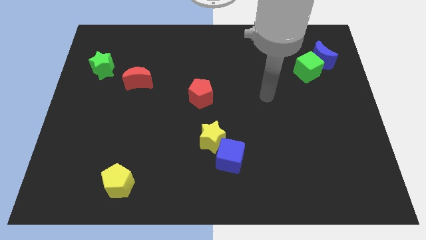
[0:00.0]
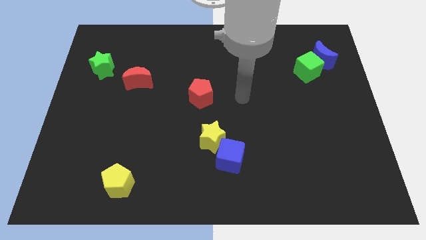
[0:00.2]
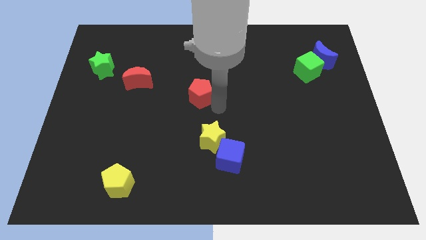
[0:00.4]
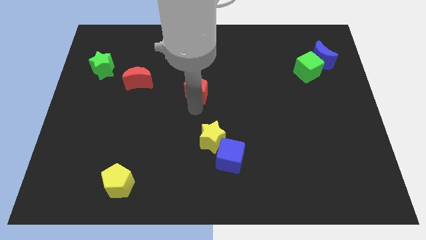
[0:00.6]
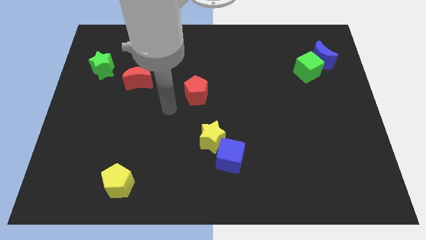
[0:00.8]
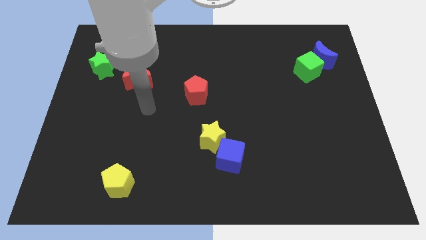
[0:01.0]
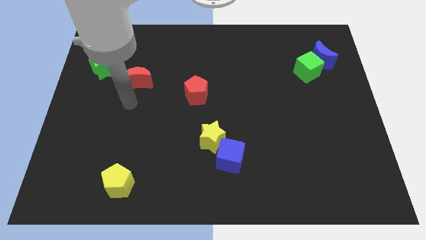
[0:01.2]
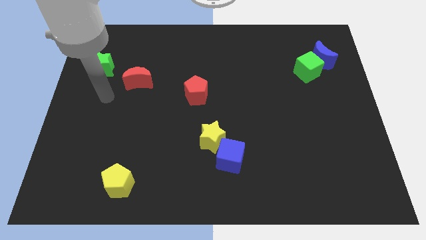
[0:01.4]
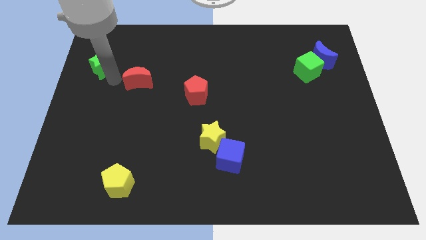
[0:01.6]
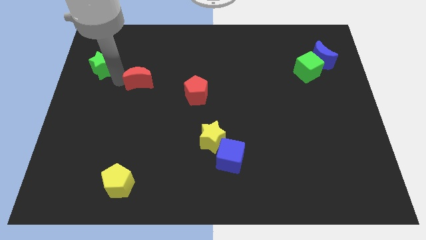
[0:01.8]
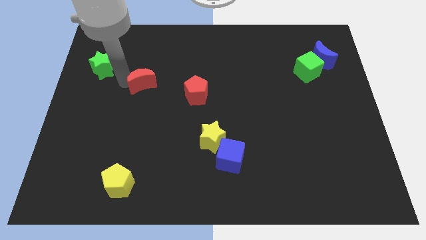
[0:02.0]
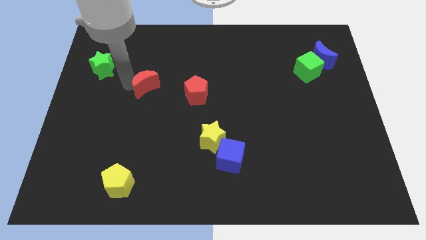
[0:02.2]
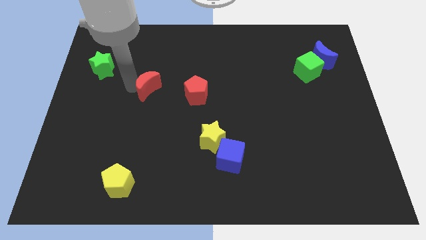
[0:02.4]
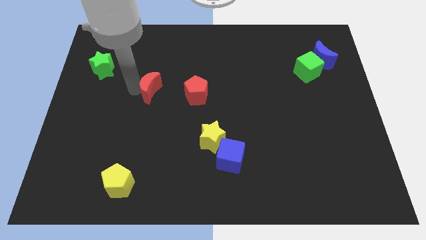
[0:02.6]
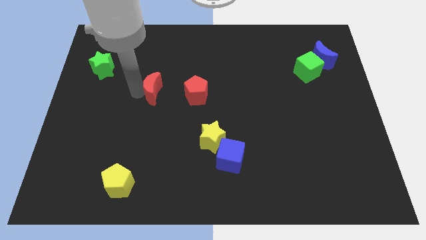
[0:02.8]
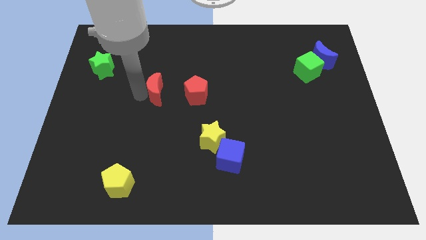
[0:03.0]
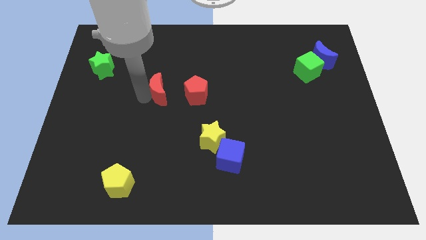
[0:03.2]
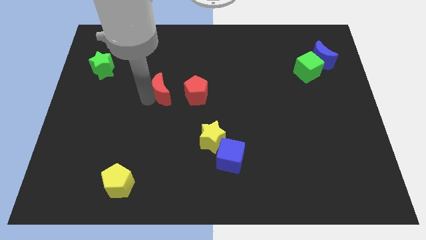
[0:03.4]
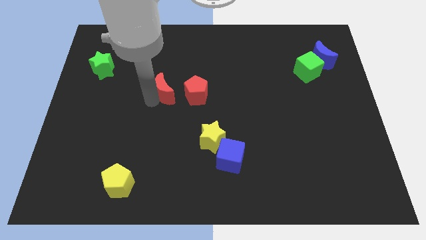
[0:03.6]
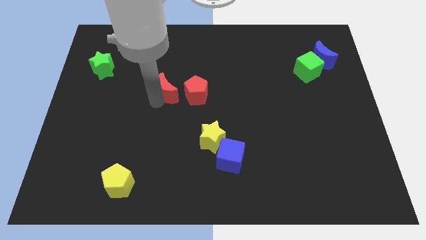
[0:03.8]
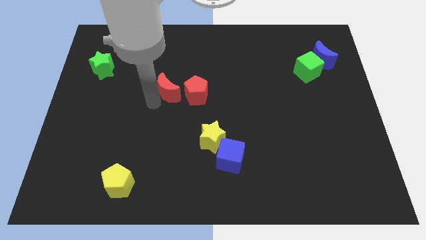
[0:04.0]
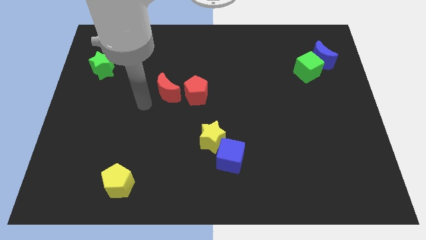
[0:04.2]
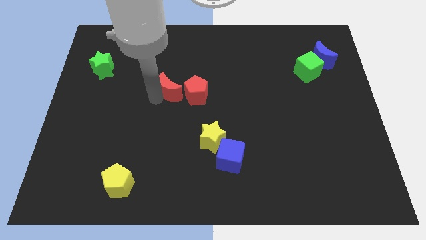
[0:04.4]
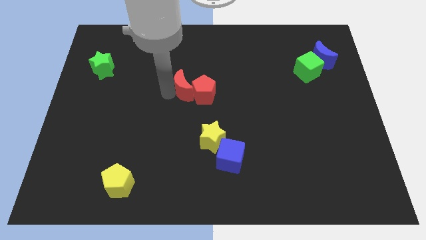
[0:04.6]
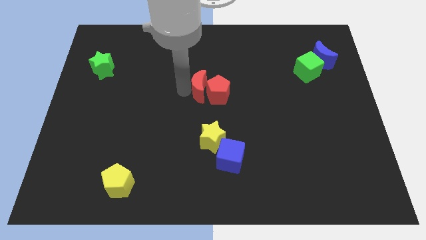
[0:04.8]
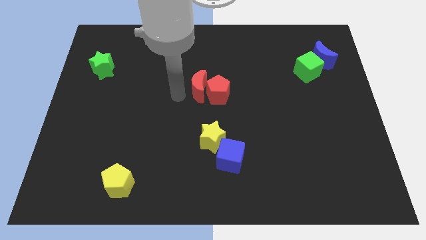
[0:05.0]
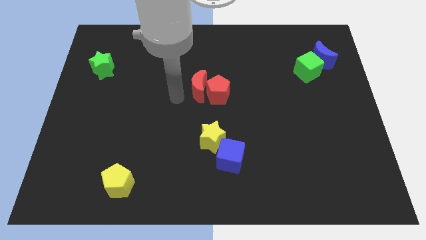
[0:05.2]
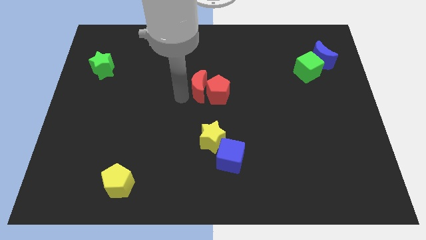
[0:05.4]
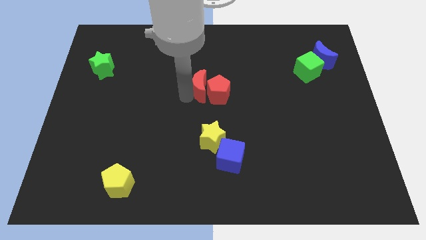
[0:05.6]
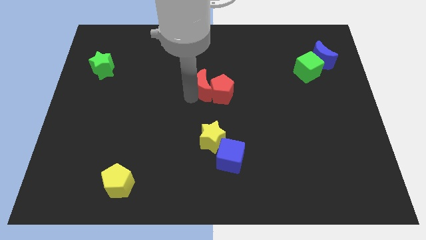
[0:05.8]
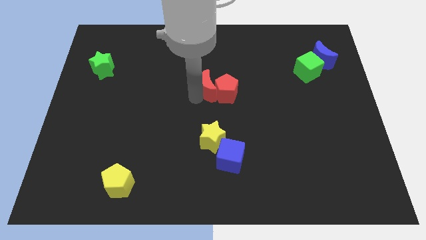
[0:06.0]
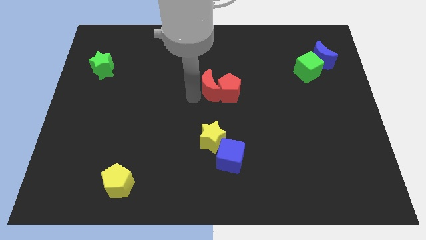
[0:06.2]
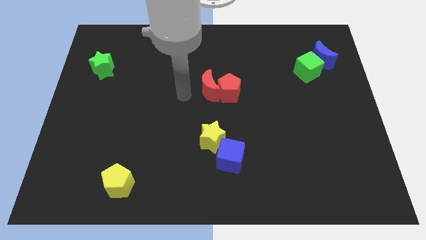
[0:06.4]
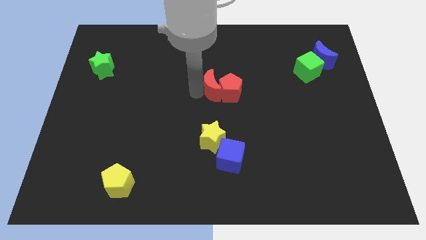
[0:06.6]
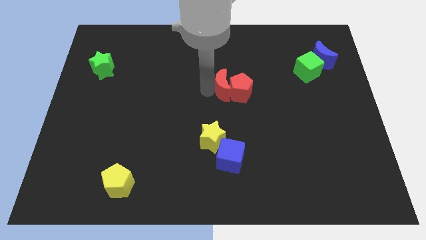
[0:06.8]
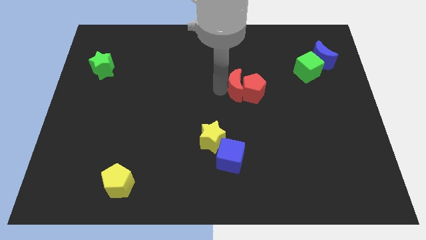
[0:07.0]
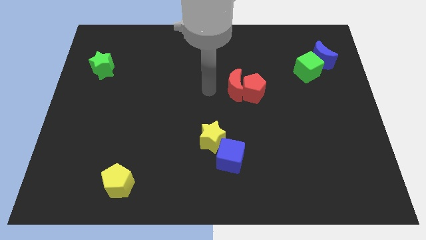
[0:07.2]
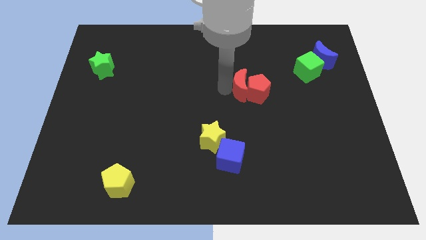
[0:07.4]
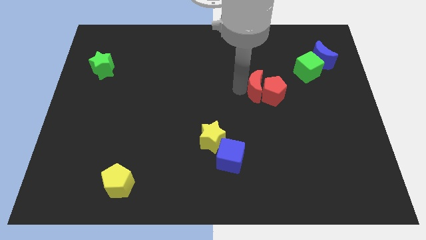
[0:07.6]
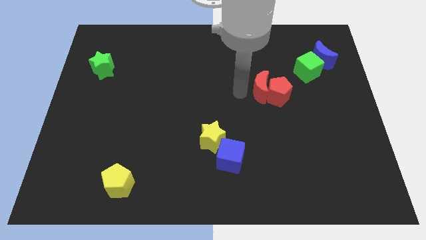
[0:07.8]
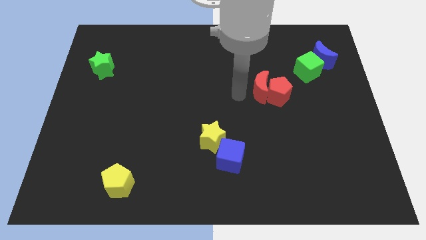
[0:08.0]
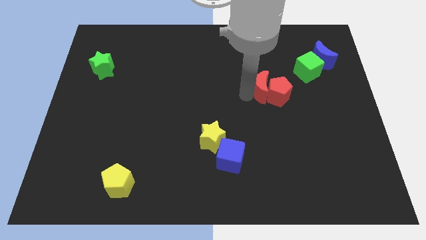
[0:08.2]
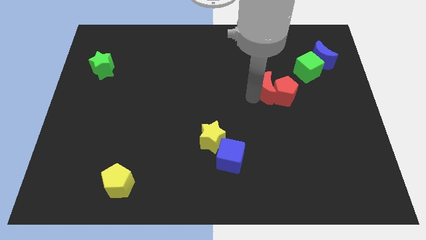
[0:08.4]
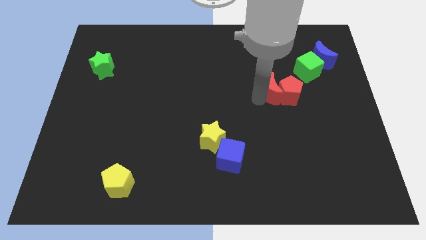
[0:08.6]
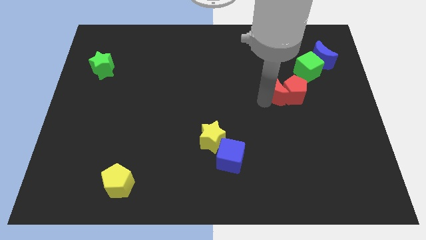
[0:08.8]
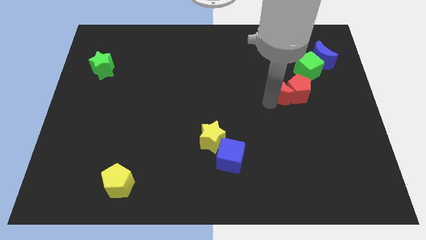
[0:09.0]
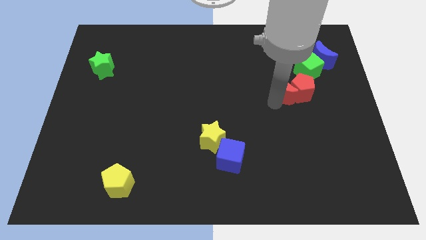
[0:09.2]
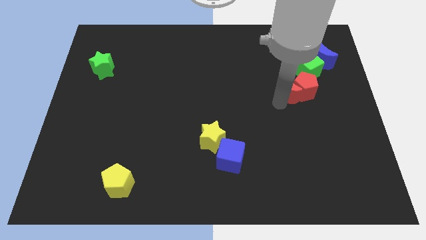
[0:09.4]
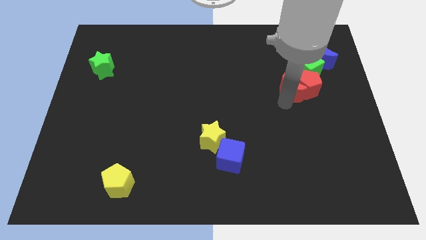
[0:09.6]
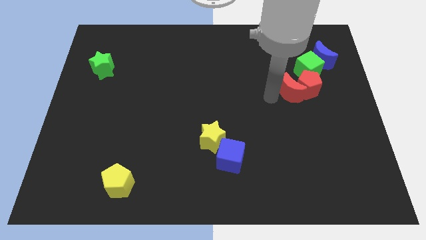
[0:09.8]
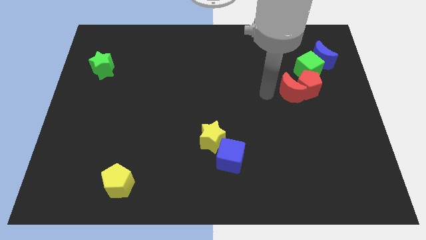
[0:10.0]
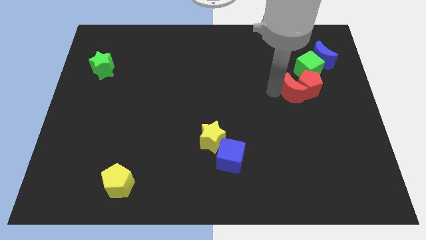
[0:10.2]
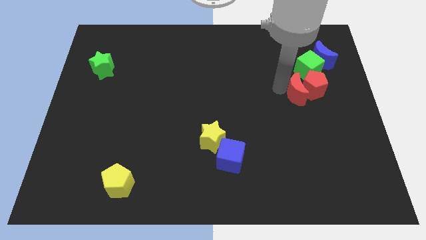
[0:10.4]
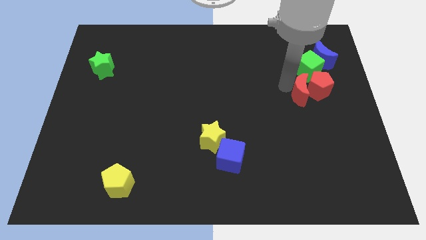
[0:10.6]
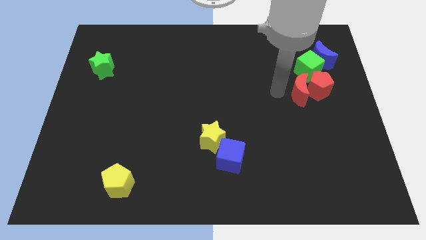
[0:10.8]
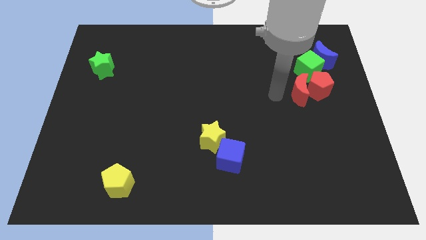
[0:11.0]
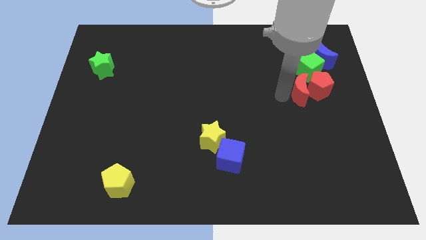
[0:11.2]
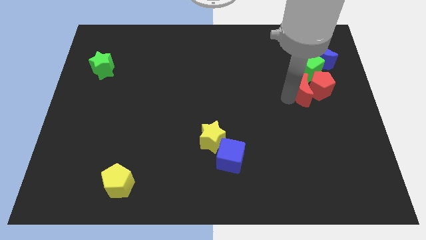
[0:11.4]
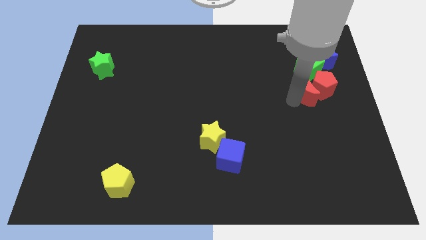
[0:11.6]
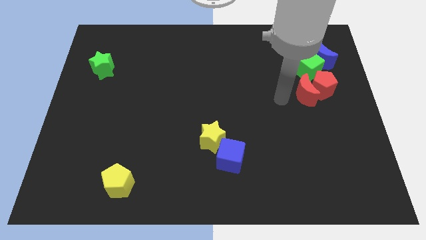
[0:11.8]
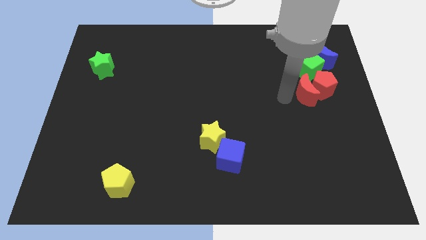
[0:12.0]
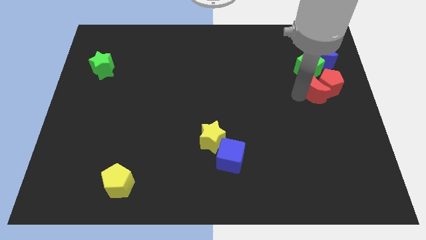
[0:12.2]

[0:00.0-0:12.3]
push the red moon below the blue moon
